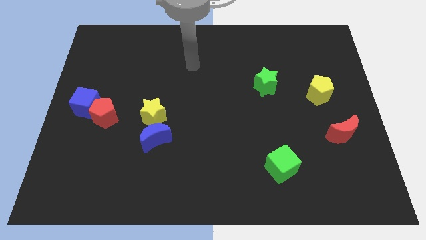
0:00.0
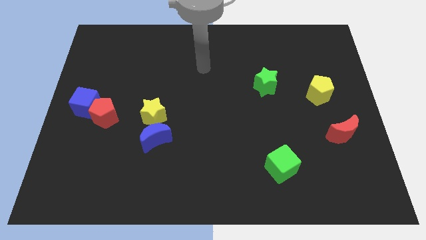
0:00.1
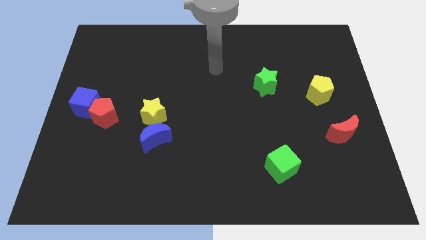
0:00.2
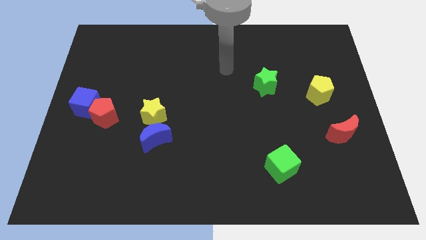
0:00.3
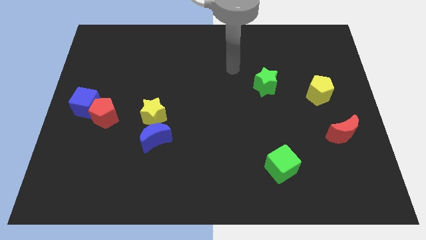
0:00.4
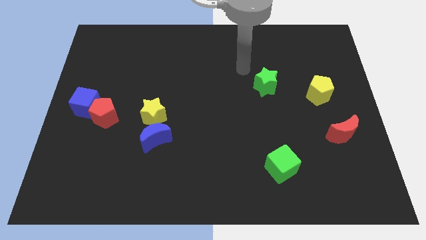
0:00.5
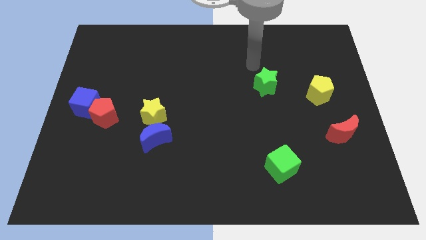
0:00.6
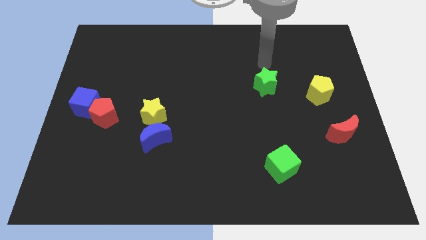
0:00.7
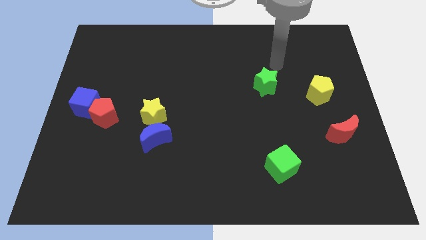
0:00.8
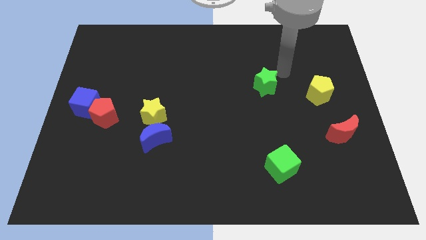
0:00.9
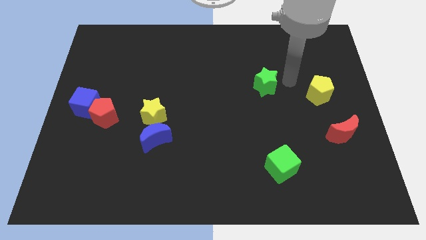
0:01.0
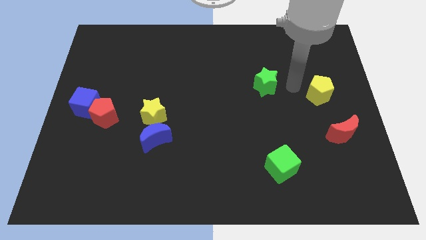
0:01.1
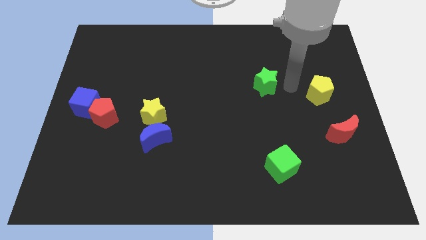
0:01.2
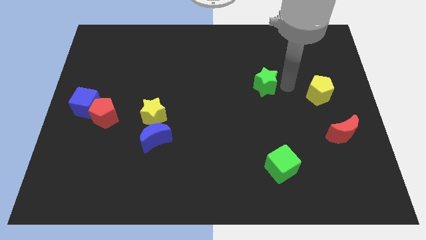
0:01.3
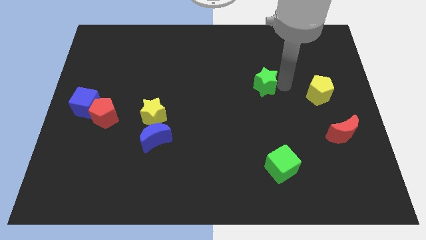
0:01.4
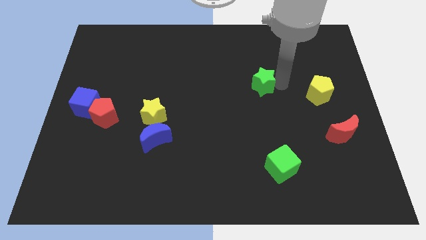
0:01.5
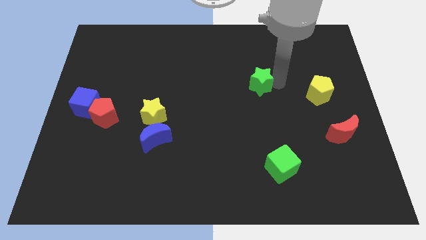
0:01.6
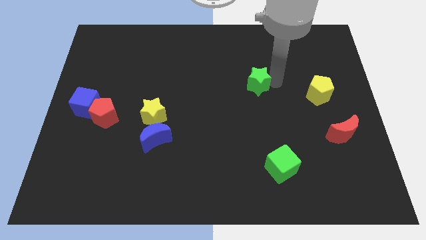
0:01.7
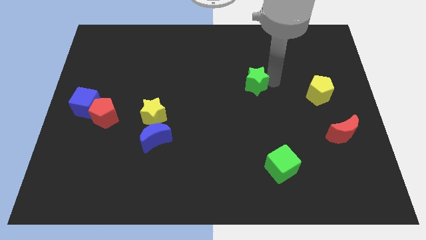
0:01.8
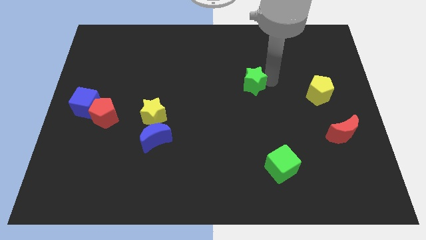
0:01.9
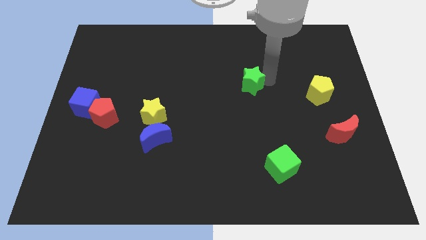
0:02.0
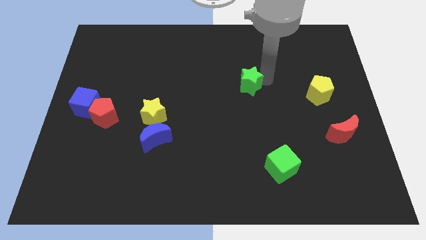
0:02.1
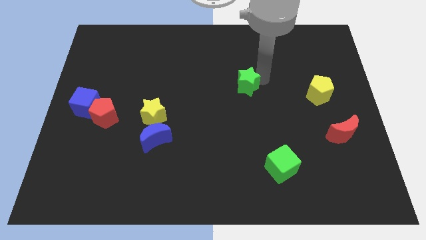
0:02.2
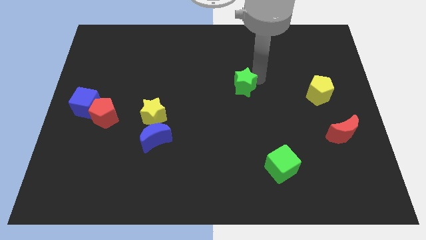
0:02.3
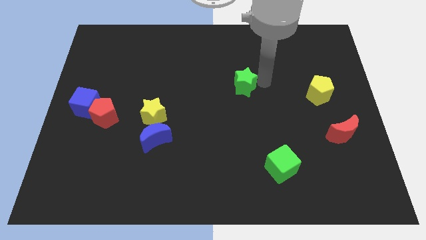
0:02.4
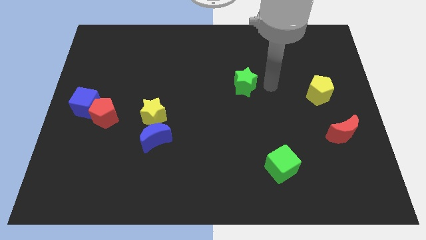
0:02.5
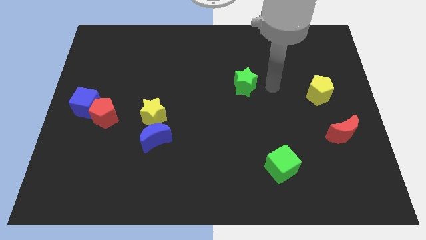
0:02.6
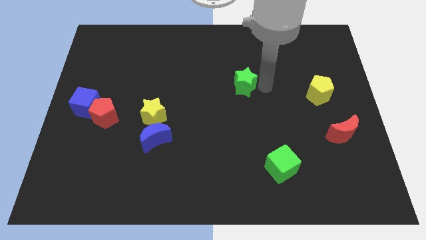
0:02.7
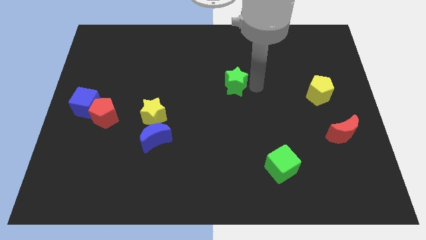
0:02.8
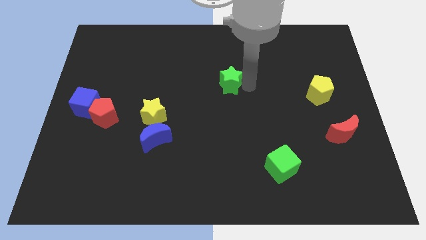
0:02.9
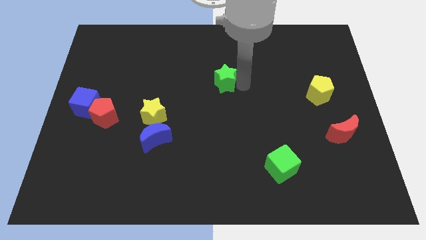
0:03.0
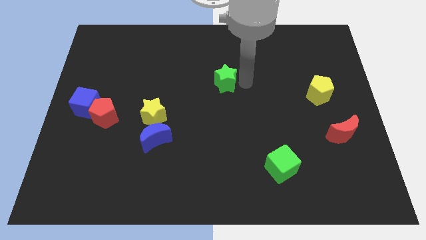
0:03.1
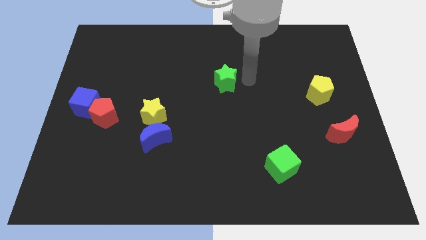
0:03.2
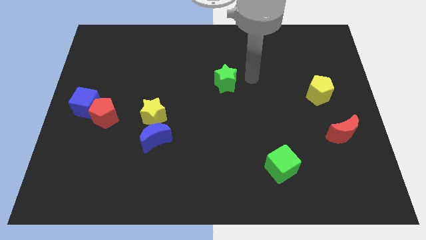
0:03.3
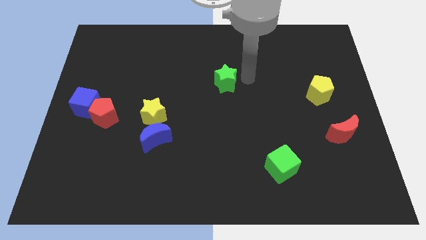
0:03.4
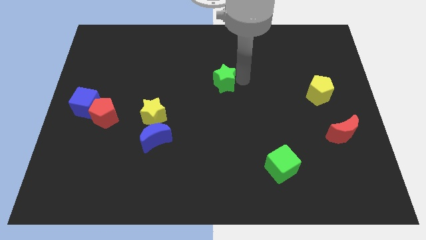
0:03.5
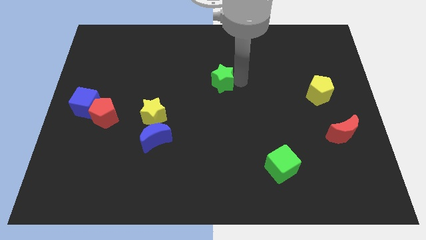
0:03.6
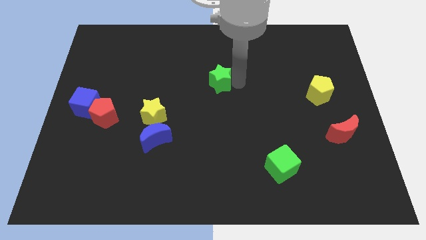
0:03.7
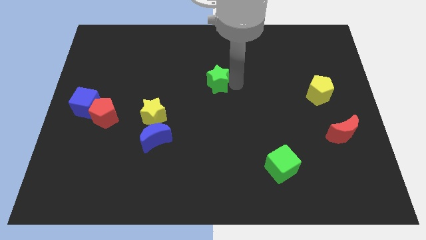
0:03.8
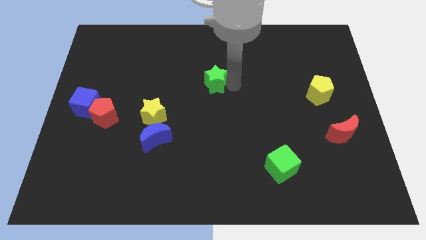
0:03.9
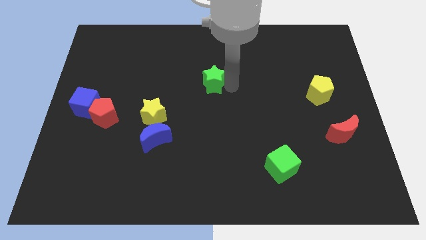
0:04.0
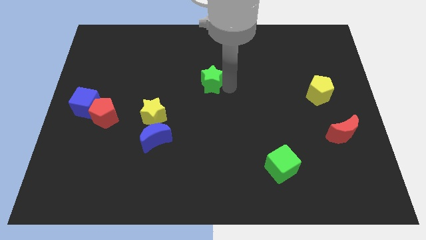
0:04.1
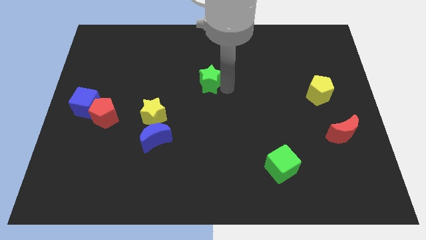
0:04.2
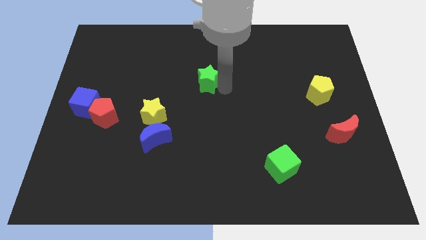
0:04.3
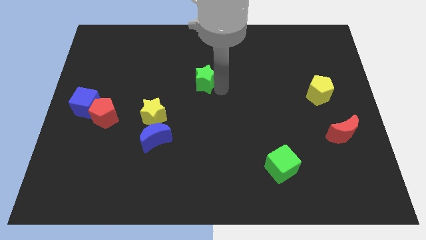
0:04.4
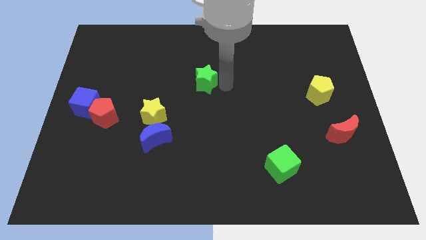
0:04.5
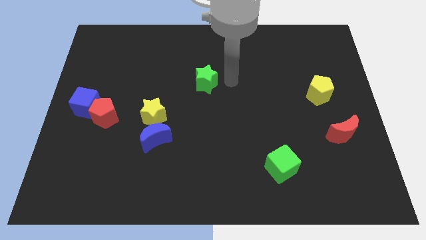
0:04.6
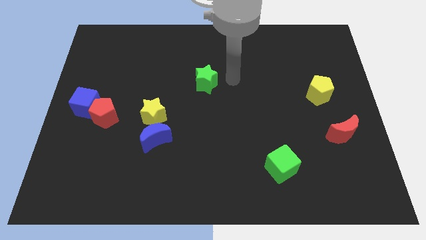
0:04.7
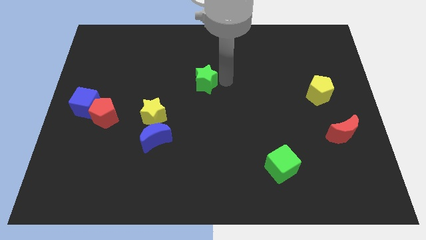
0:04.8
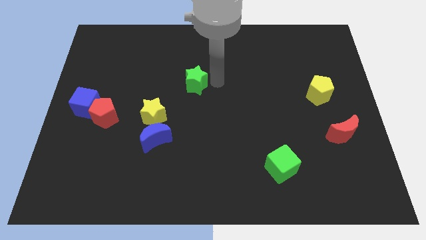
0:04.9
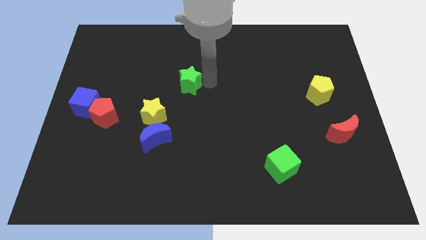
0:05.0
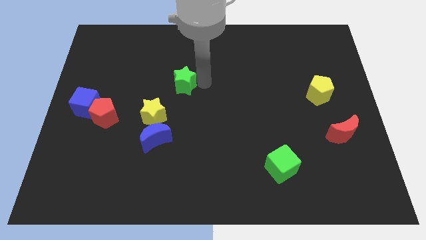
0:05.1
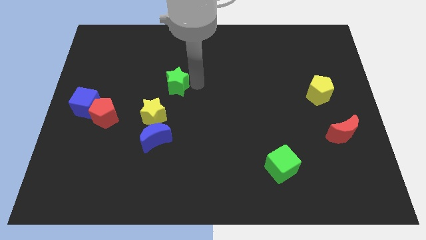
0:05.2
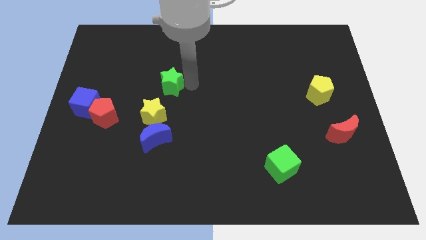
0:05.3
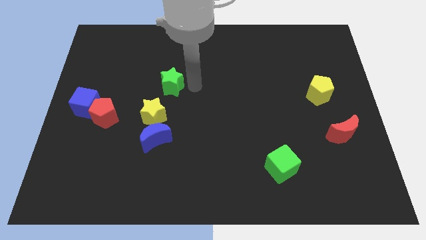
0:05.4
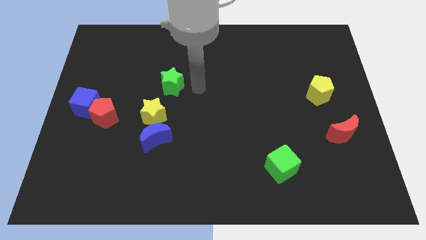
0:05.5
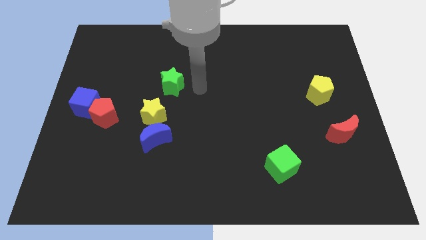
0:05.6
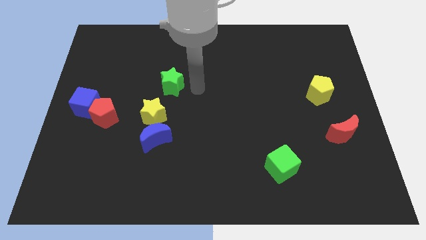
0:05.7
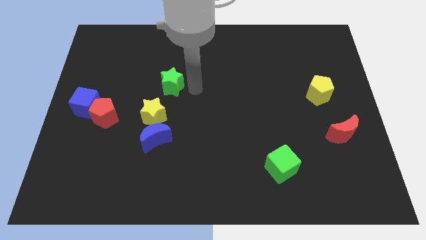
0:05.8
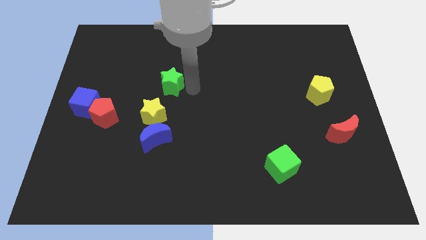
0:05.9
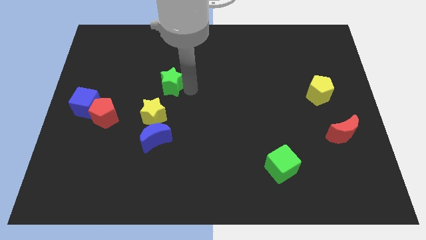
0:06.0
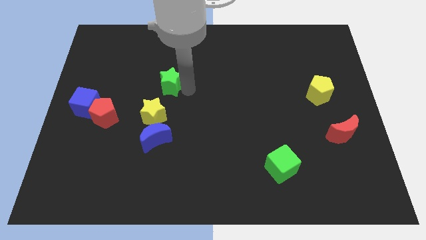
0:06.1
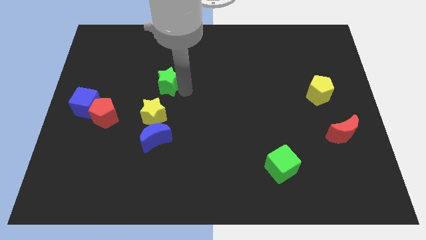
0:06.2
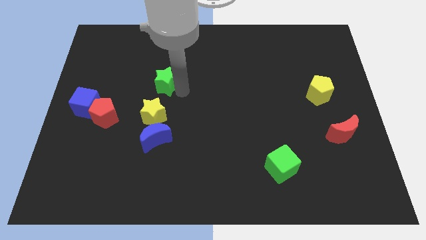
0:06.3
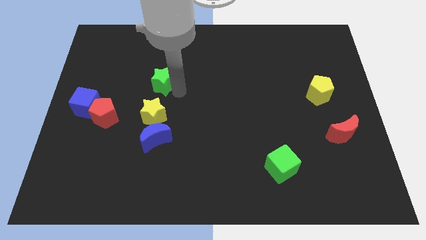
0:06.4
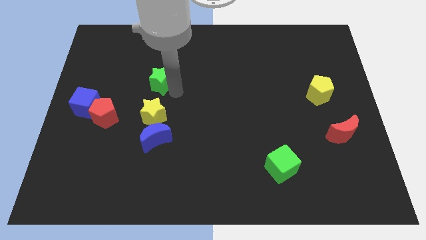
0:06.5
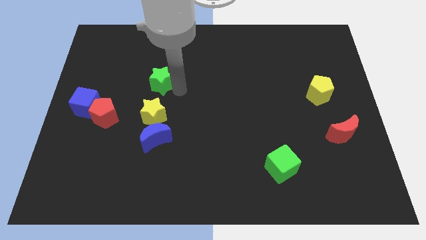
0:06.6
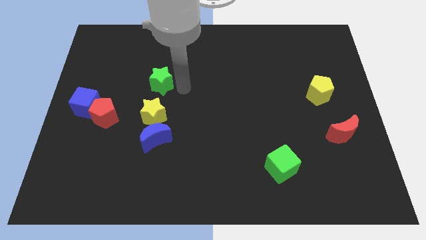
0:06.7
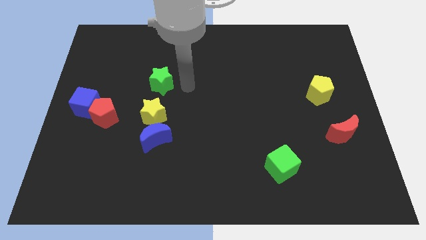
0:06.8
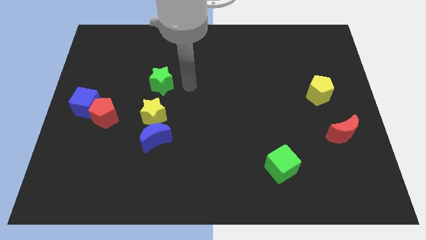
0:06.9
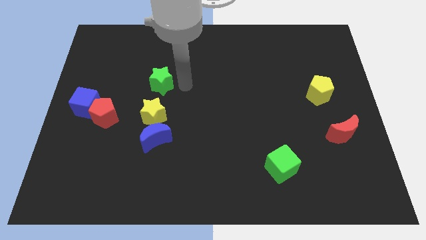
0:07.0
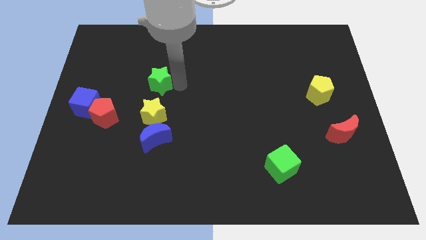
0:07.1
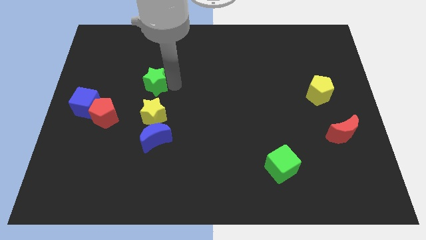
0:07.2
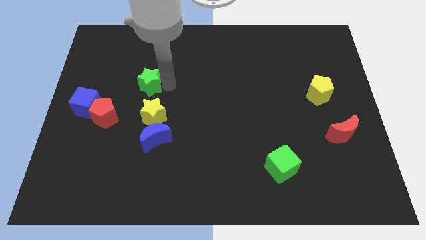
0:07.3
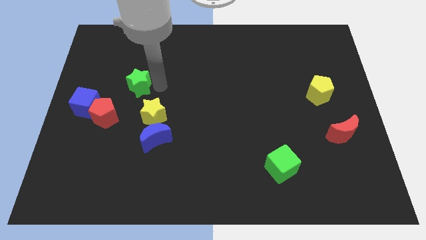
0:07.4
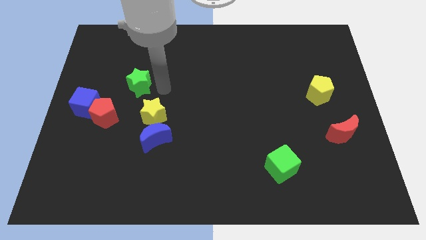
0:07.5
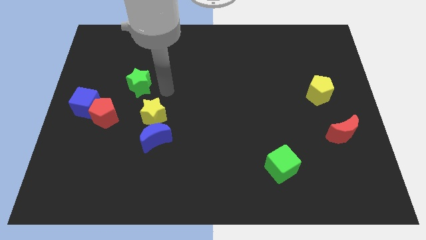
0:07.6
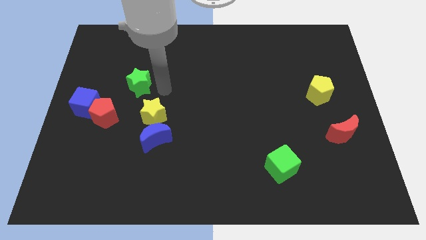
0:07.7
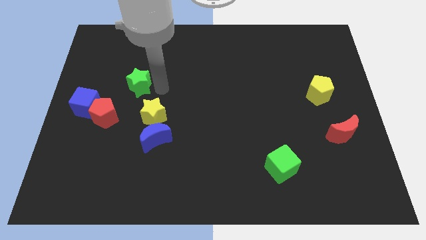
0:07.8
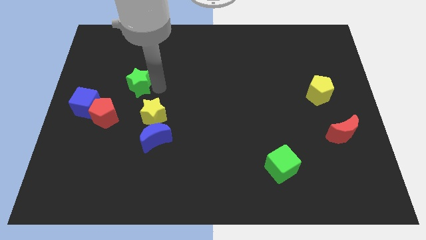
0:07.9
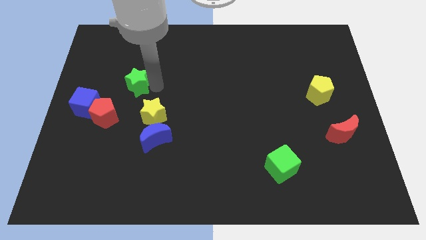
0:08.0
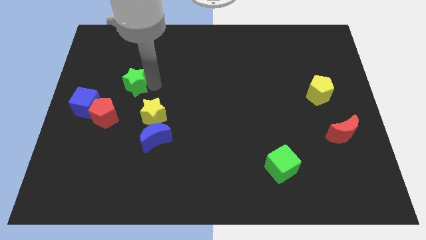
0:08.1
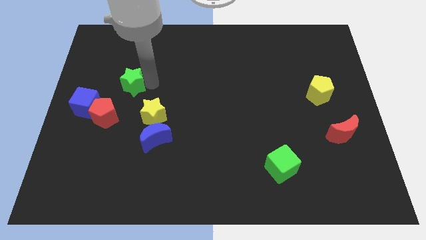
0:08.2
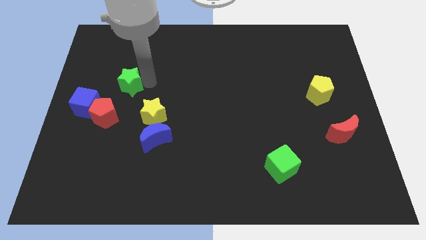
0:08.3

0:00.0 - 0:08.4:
slide the green star to the top side of the red pentagon
